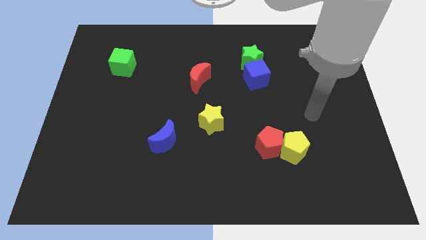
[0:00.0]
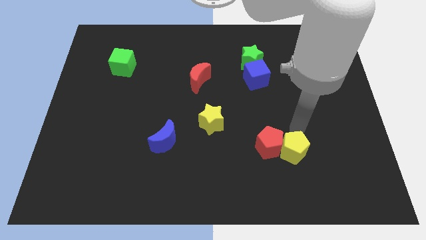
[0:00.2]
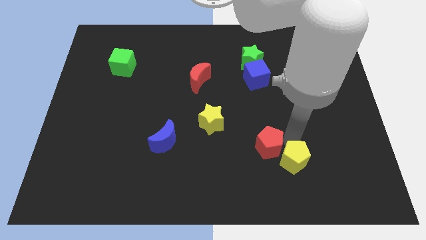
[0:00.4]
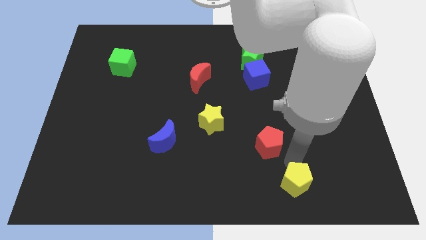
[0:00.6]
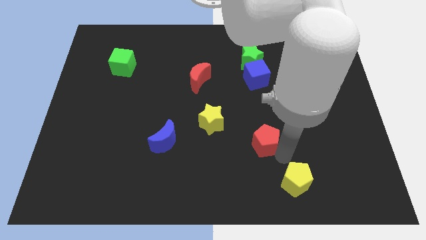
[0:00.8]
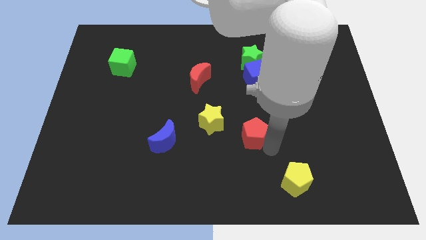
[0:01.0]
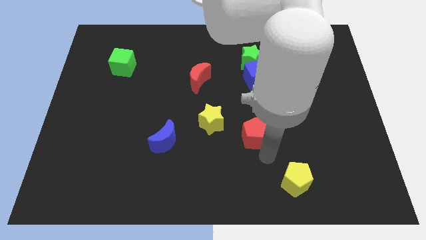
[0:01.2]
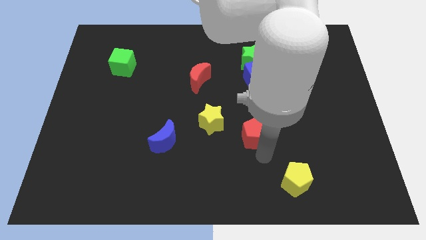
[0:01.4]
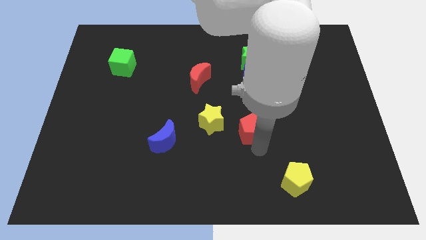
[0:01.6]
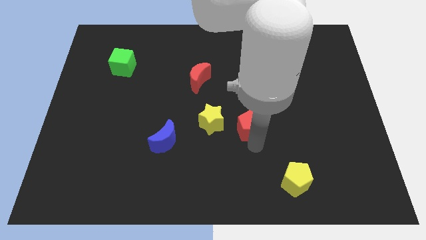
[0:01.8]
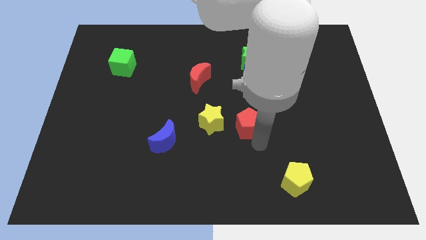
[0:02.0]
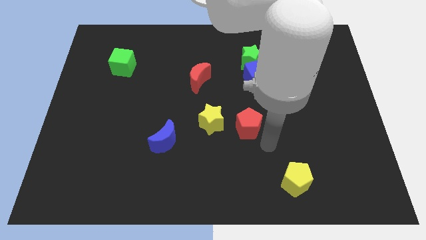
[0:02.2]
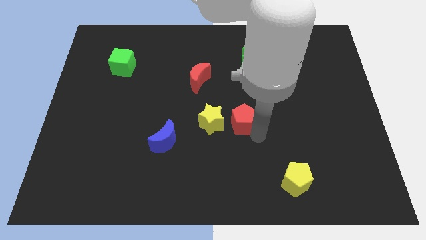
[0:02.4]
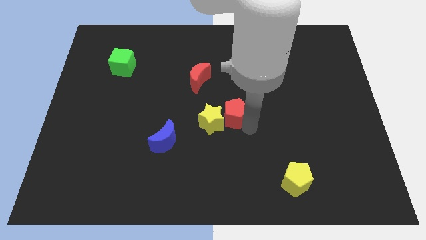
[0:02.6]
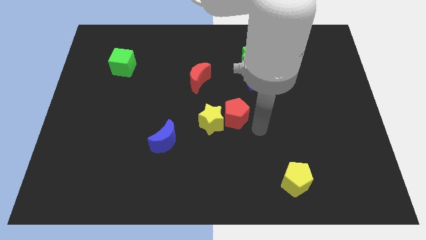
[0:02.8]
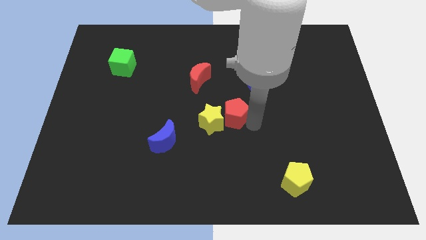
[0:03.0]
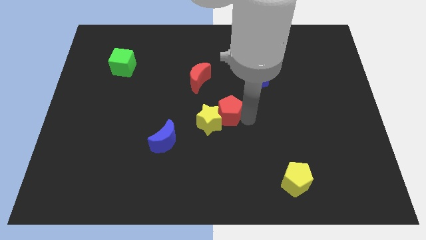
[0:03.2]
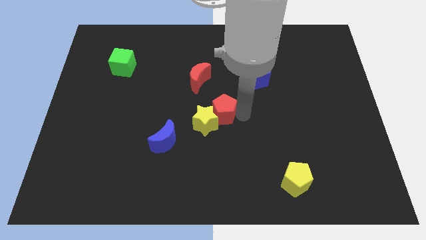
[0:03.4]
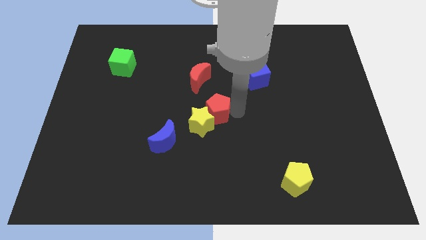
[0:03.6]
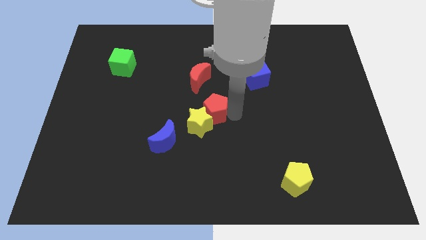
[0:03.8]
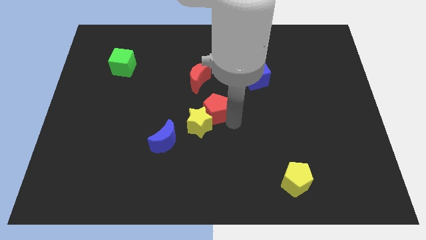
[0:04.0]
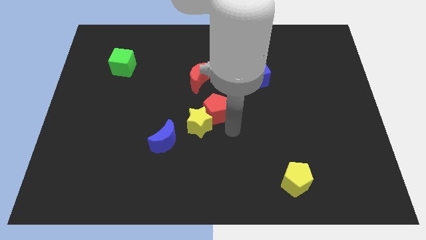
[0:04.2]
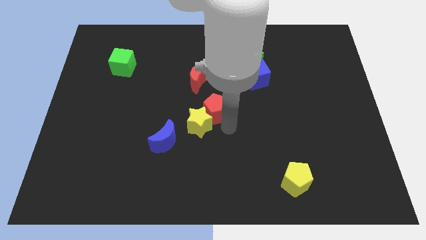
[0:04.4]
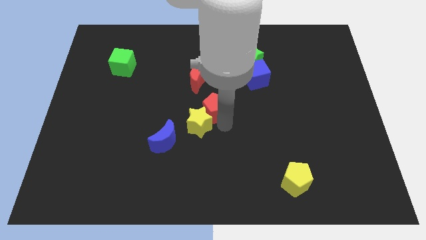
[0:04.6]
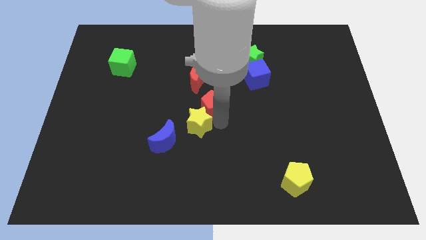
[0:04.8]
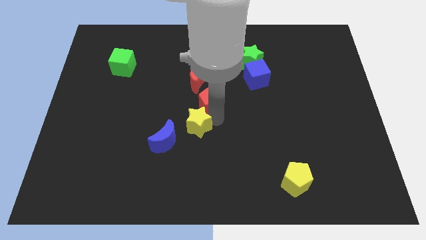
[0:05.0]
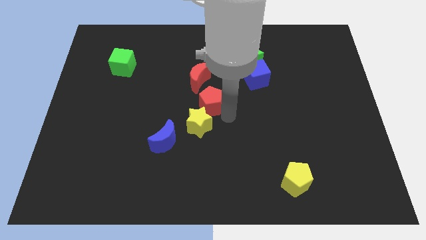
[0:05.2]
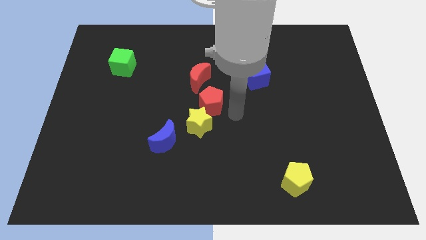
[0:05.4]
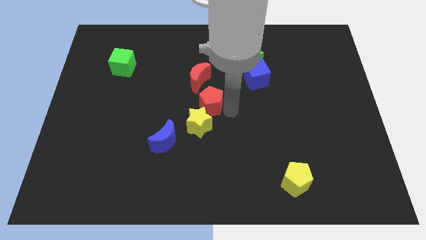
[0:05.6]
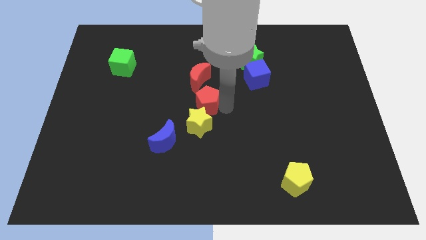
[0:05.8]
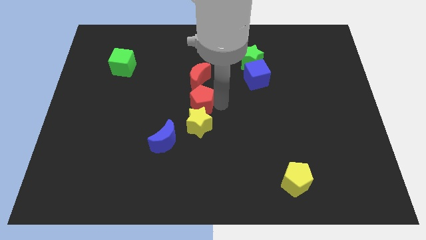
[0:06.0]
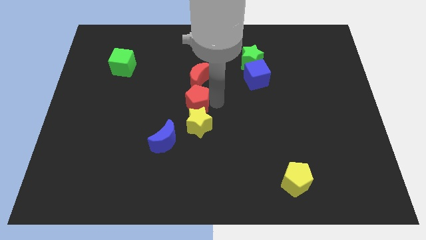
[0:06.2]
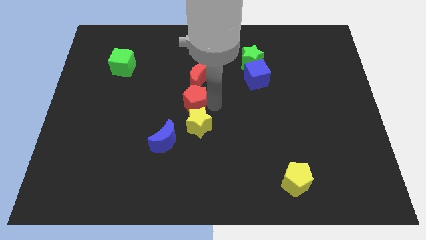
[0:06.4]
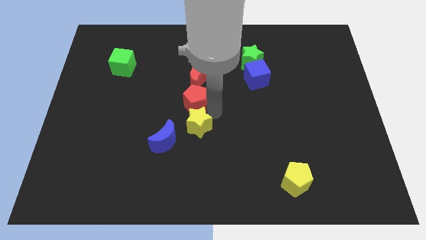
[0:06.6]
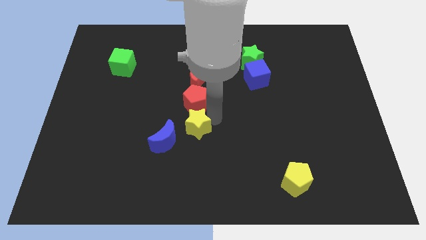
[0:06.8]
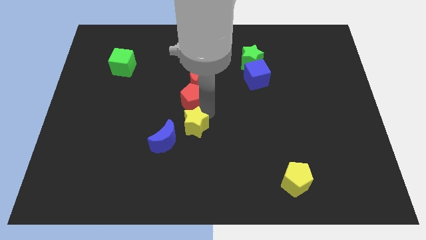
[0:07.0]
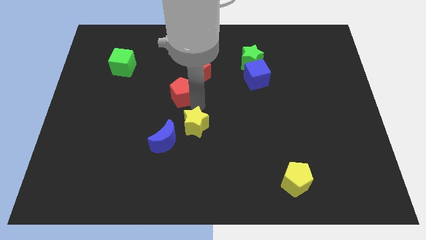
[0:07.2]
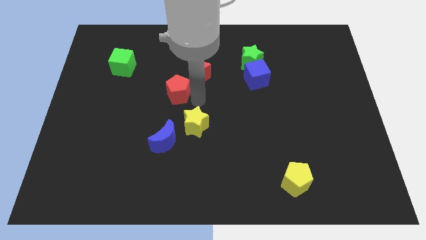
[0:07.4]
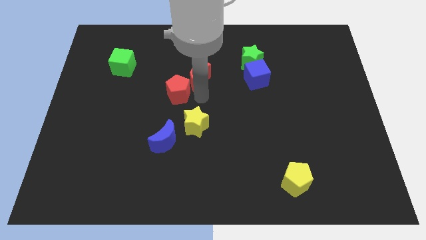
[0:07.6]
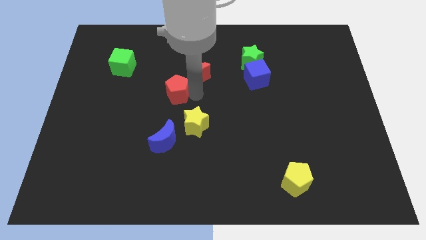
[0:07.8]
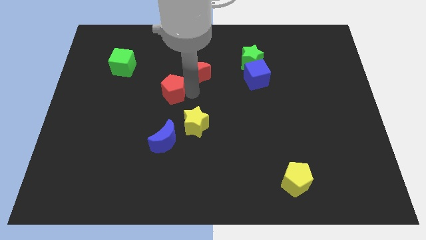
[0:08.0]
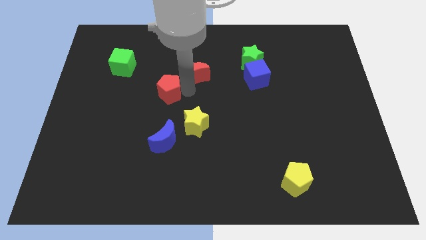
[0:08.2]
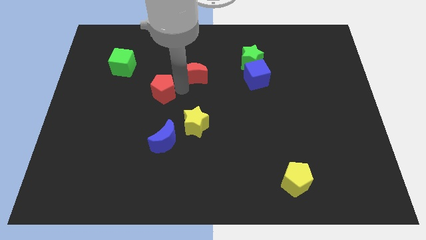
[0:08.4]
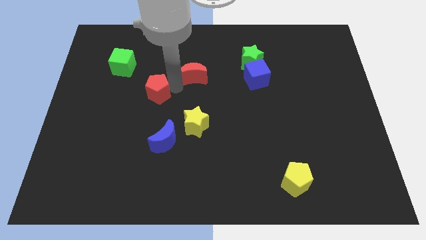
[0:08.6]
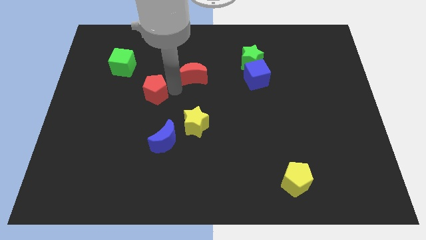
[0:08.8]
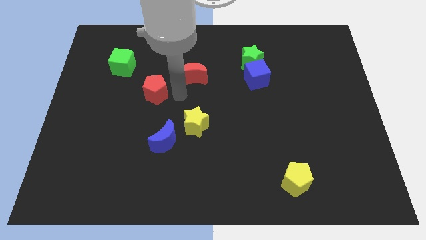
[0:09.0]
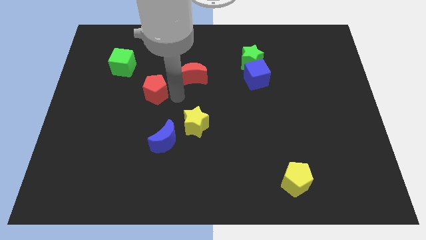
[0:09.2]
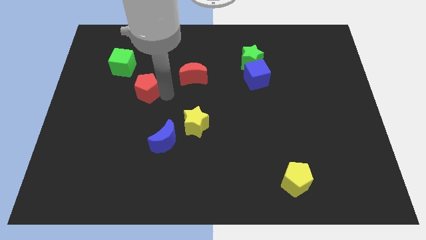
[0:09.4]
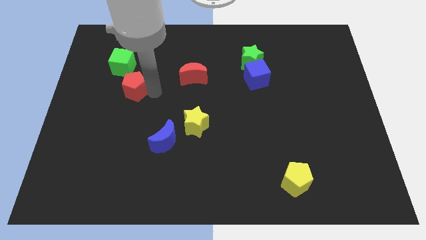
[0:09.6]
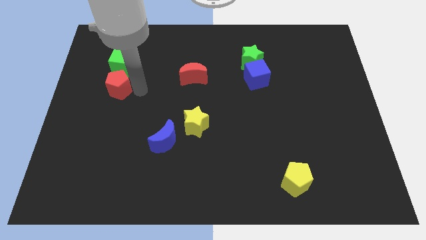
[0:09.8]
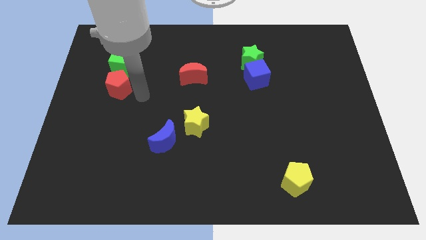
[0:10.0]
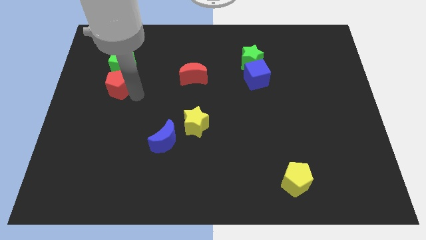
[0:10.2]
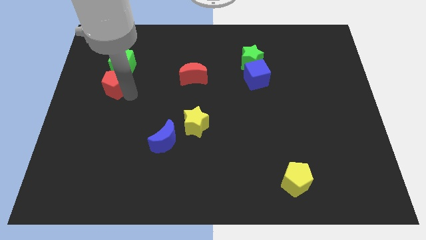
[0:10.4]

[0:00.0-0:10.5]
put the red pentagon to the bottom left of the green cube

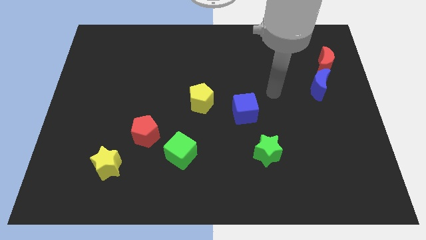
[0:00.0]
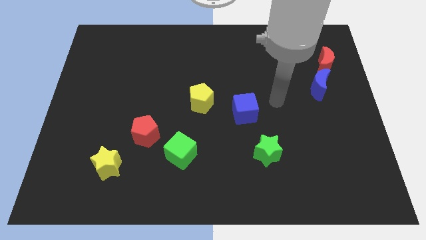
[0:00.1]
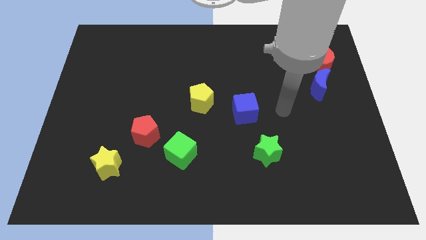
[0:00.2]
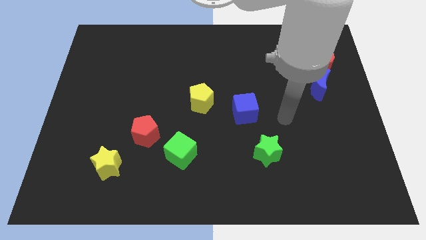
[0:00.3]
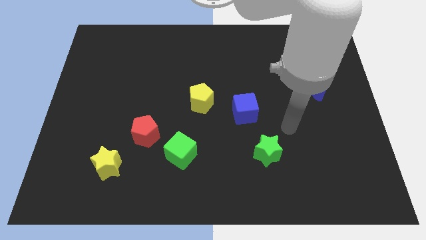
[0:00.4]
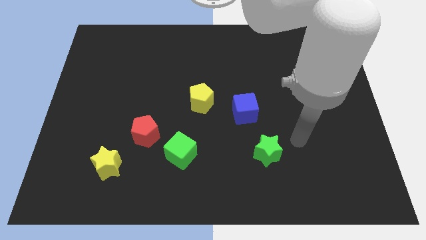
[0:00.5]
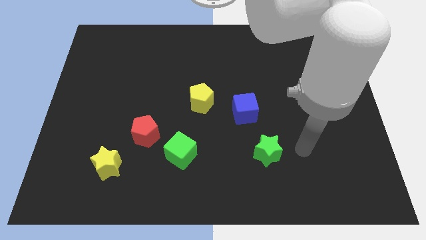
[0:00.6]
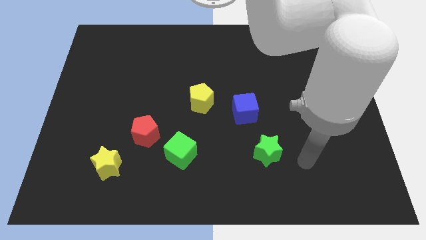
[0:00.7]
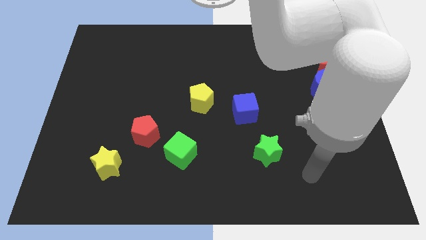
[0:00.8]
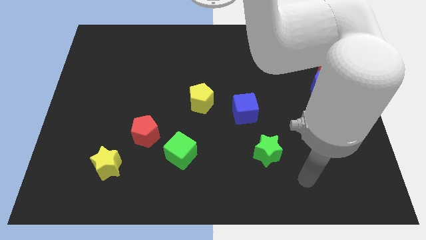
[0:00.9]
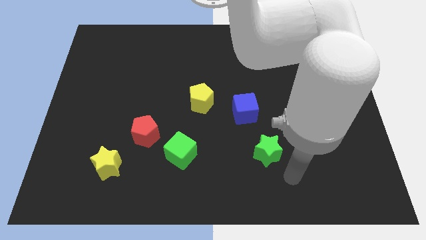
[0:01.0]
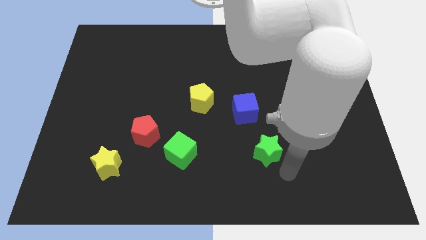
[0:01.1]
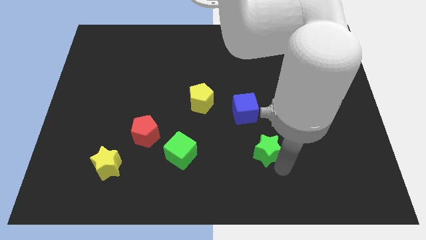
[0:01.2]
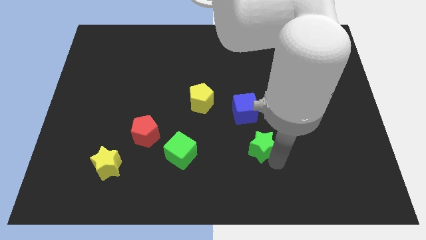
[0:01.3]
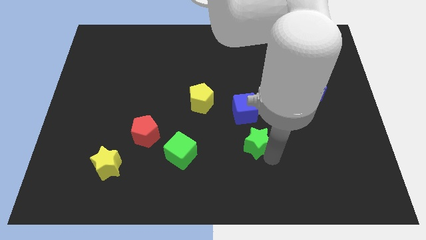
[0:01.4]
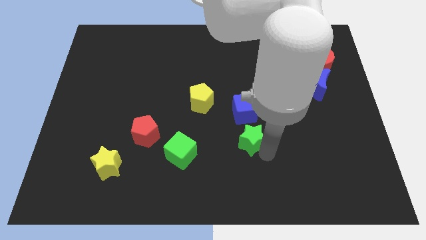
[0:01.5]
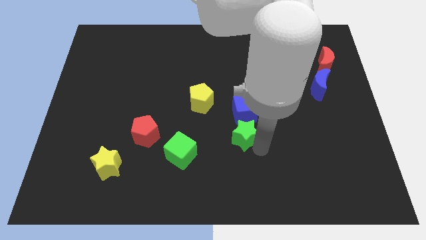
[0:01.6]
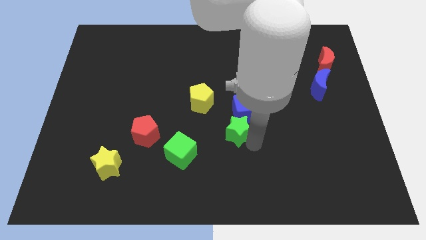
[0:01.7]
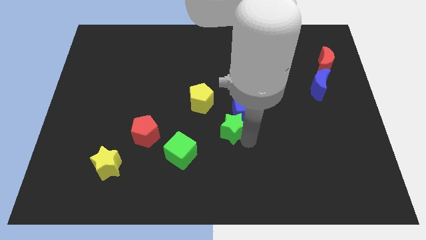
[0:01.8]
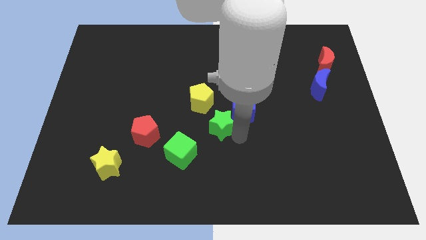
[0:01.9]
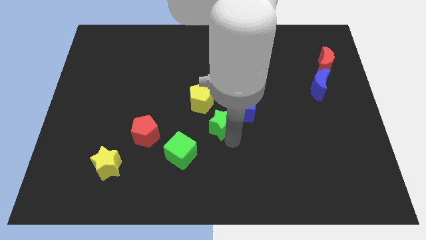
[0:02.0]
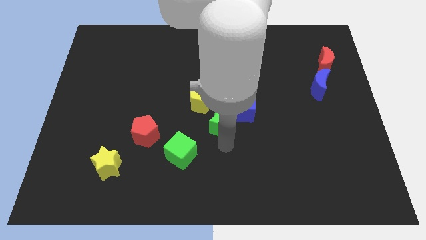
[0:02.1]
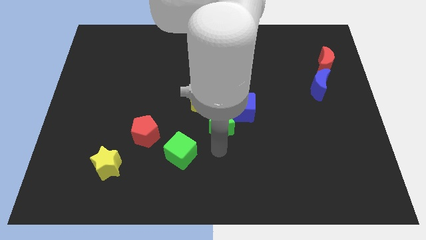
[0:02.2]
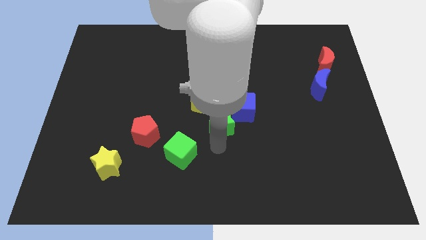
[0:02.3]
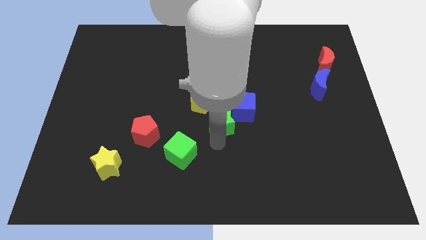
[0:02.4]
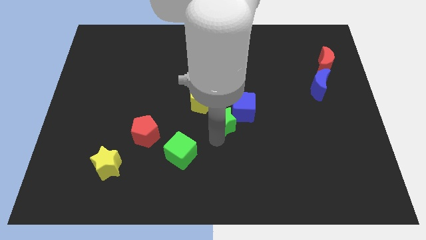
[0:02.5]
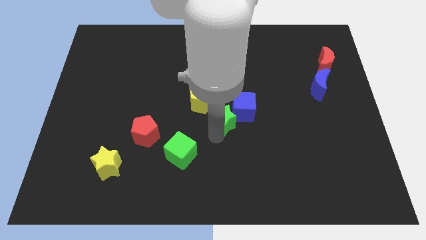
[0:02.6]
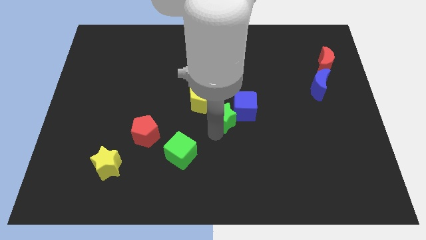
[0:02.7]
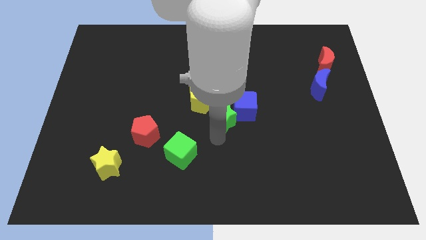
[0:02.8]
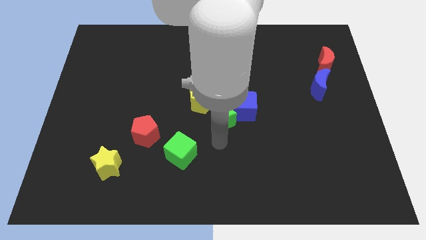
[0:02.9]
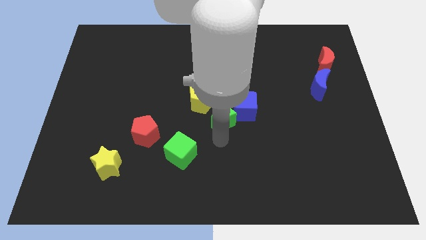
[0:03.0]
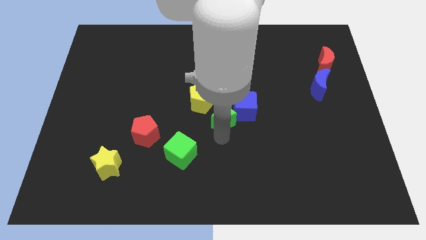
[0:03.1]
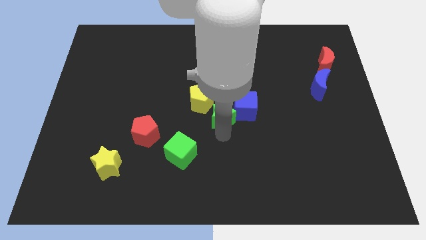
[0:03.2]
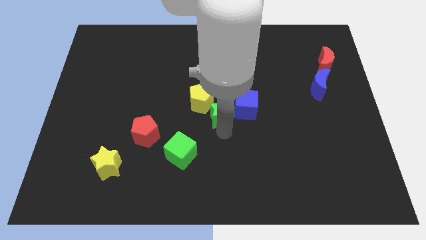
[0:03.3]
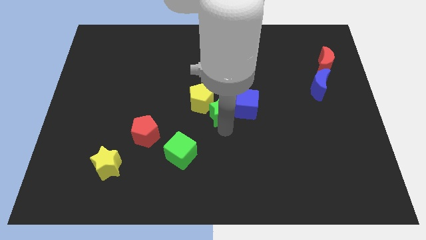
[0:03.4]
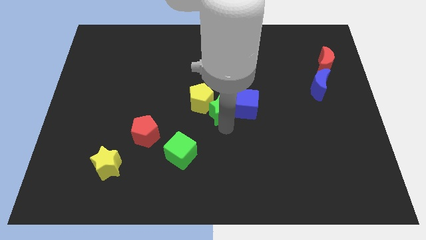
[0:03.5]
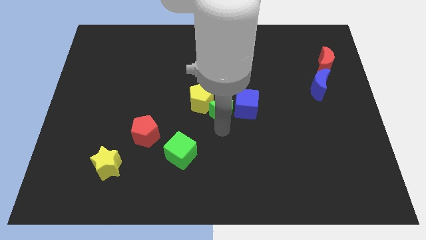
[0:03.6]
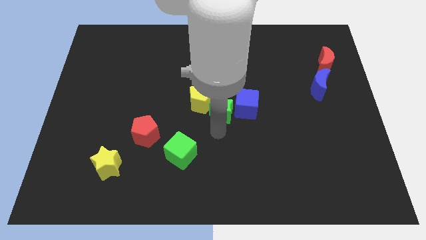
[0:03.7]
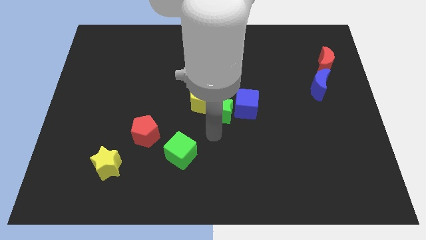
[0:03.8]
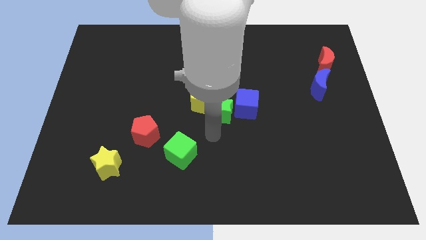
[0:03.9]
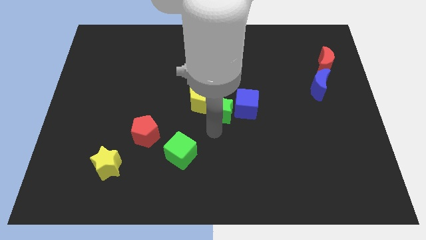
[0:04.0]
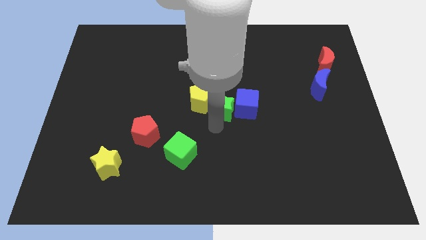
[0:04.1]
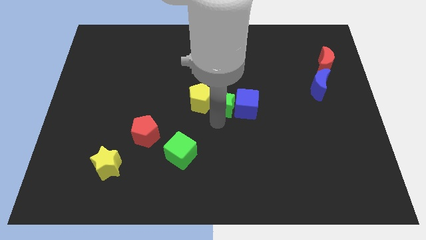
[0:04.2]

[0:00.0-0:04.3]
push the green star to the top right side of the yellow pentagon
